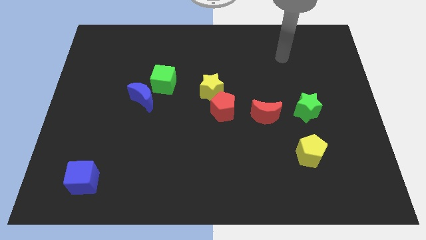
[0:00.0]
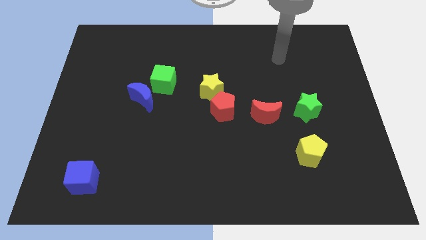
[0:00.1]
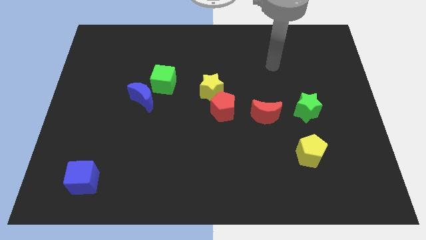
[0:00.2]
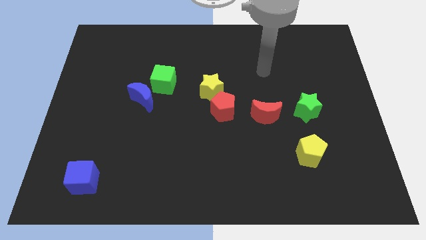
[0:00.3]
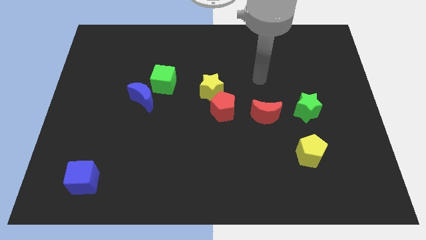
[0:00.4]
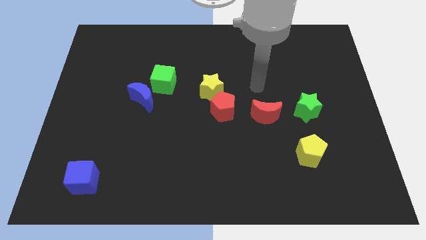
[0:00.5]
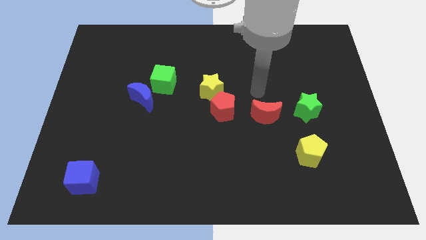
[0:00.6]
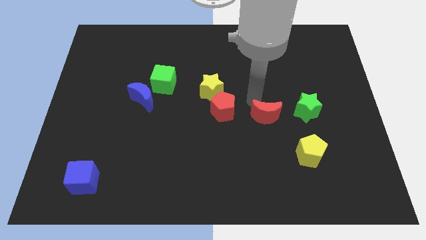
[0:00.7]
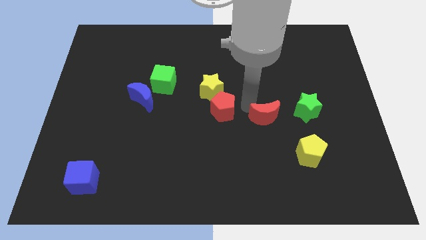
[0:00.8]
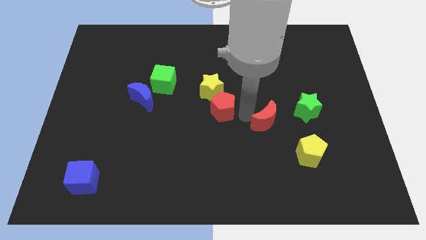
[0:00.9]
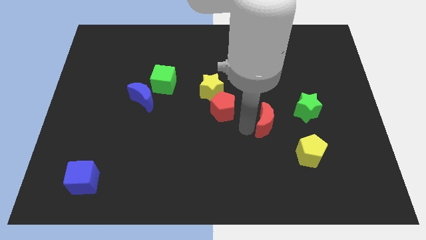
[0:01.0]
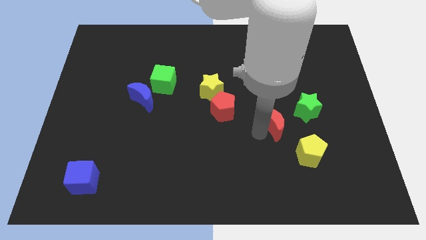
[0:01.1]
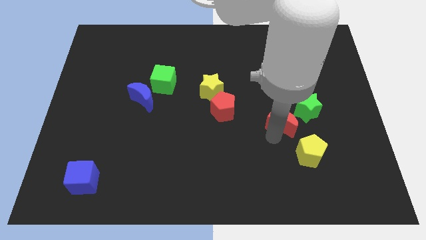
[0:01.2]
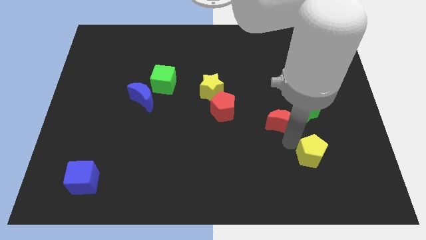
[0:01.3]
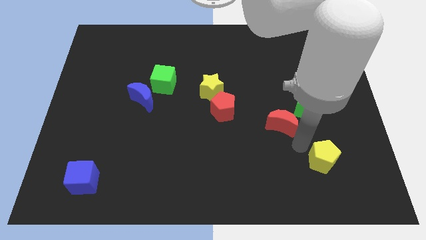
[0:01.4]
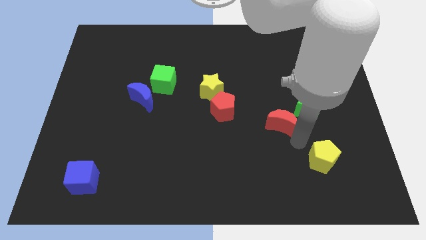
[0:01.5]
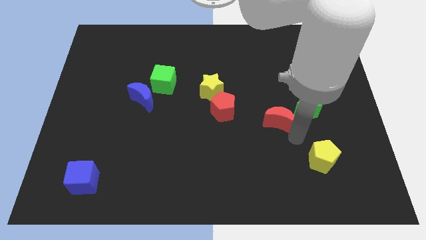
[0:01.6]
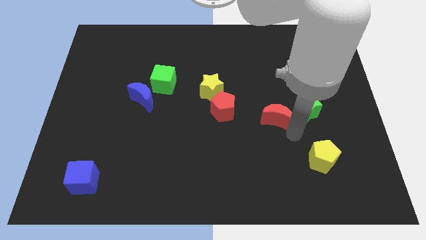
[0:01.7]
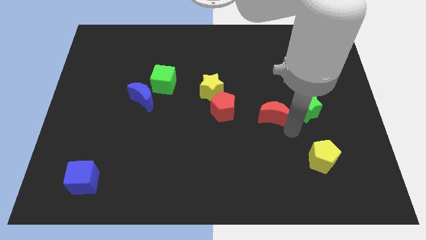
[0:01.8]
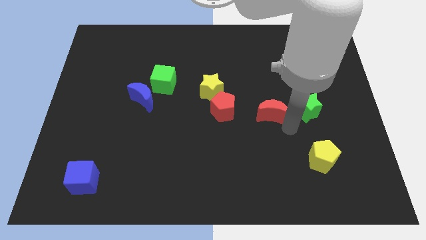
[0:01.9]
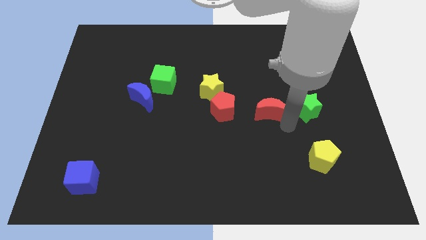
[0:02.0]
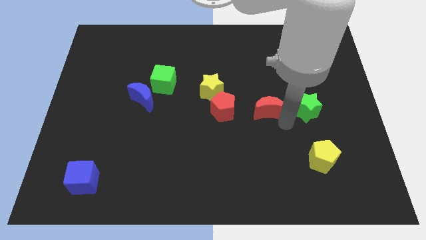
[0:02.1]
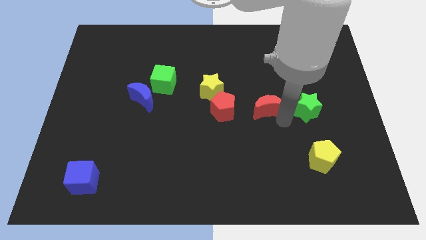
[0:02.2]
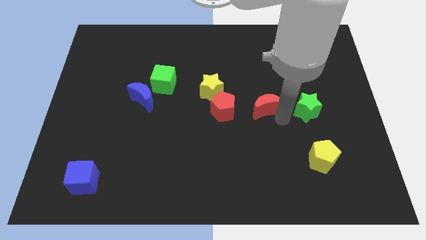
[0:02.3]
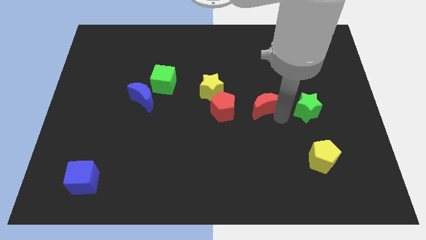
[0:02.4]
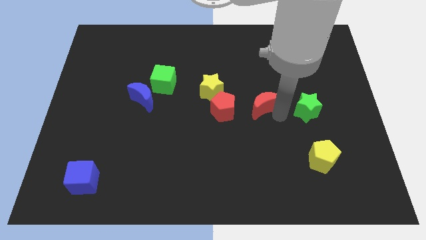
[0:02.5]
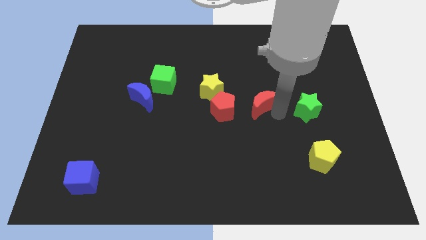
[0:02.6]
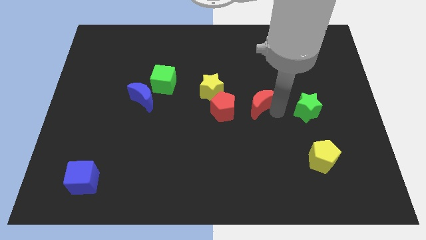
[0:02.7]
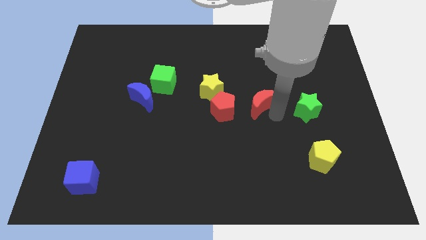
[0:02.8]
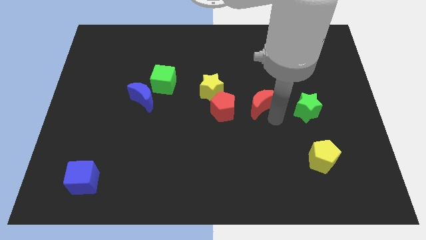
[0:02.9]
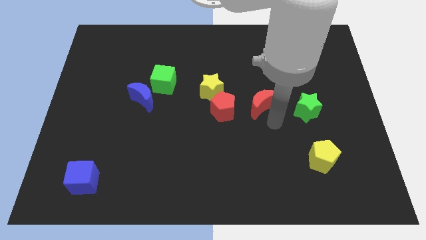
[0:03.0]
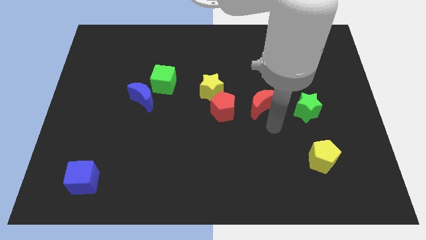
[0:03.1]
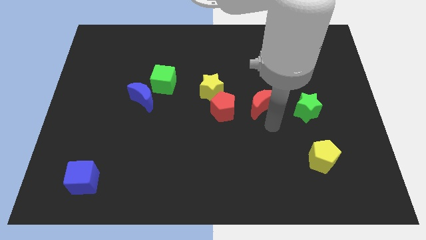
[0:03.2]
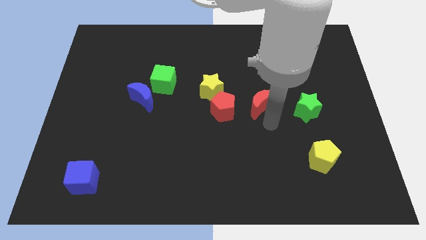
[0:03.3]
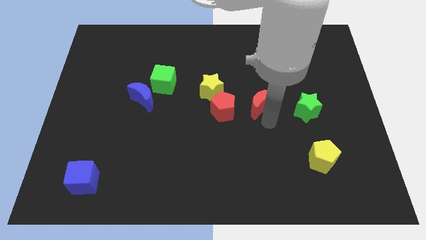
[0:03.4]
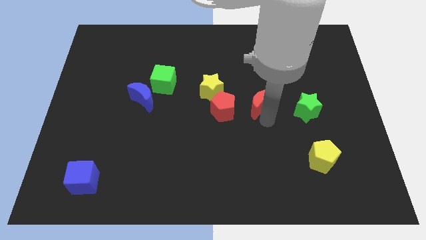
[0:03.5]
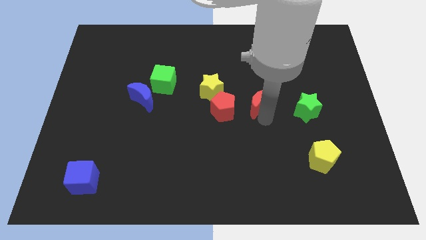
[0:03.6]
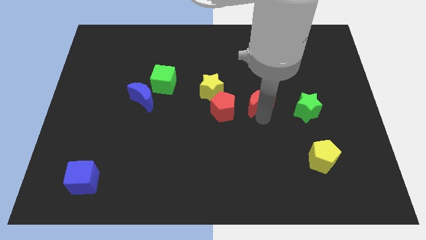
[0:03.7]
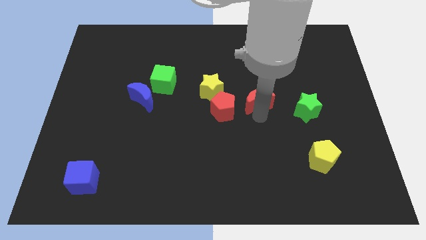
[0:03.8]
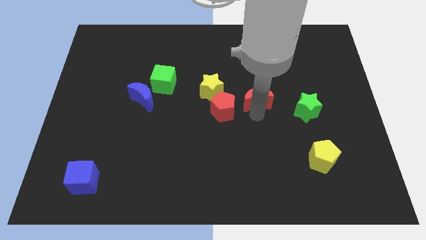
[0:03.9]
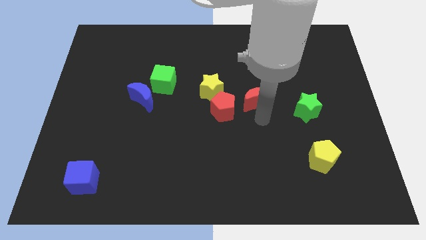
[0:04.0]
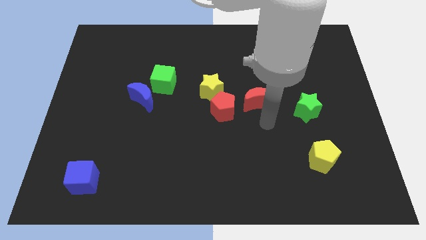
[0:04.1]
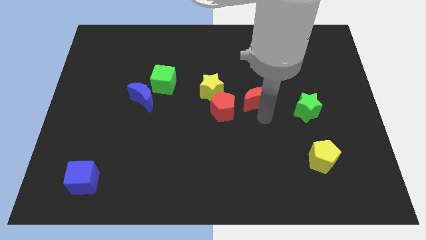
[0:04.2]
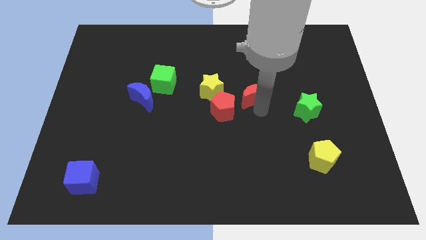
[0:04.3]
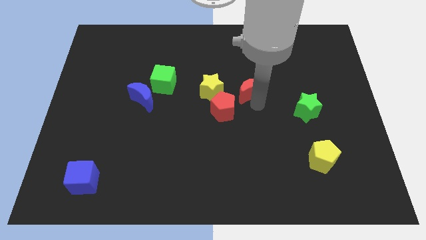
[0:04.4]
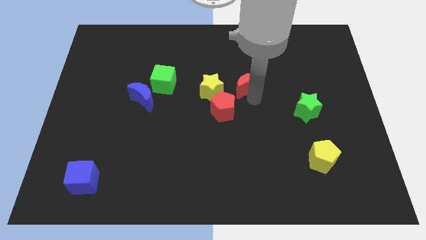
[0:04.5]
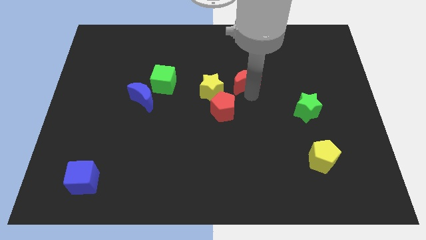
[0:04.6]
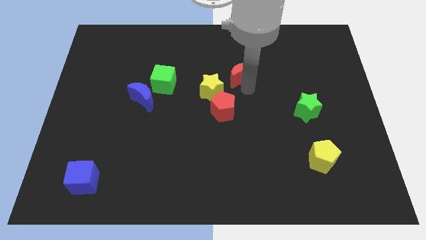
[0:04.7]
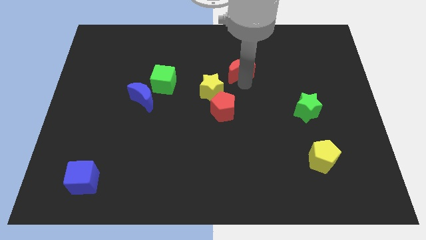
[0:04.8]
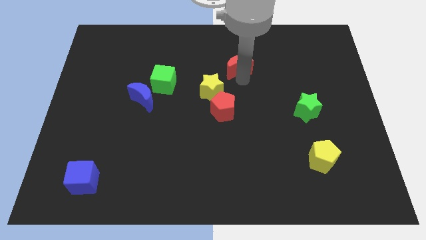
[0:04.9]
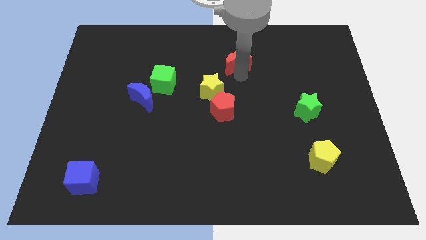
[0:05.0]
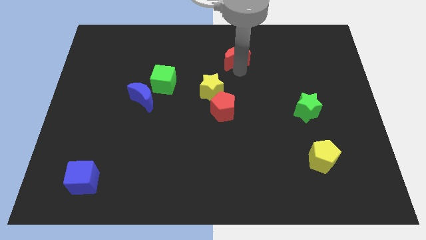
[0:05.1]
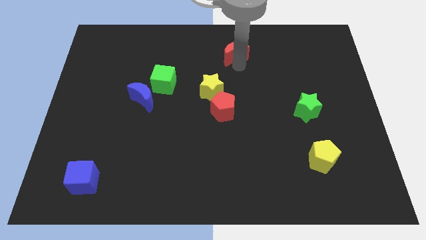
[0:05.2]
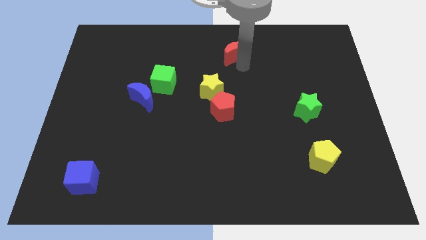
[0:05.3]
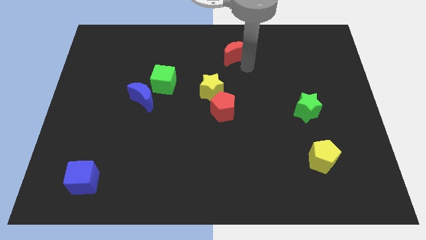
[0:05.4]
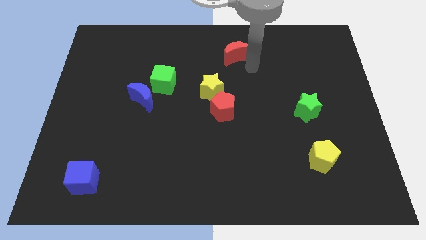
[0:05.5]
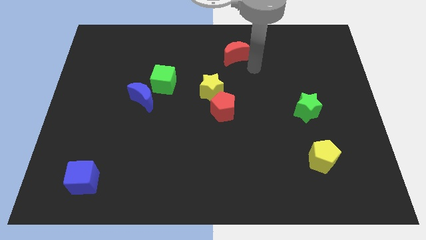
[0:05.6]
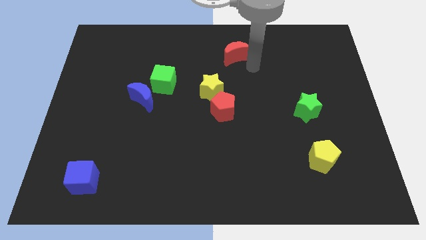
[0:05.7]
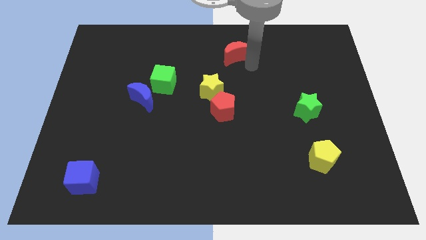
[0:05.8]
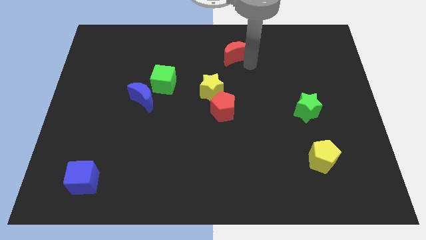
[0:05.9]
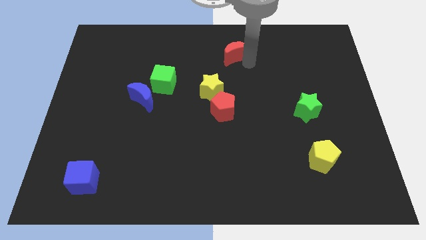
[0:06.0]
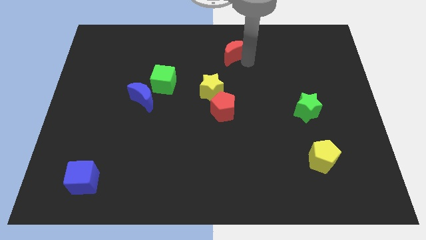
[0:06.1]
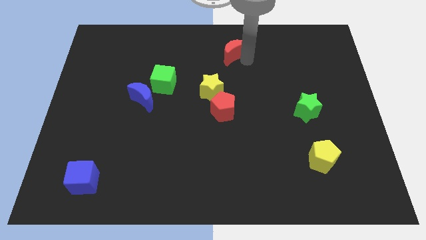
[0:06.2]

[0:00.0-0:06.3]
push the red moon to the towards your base
